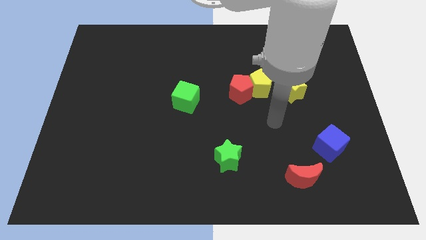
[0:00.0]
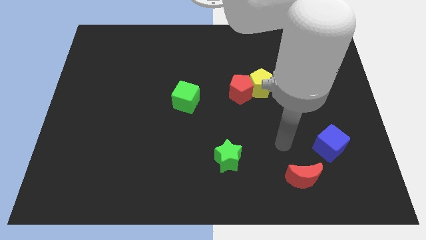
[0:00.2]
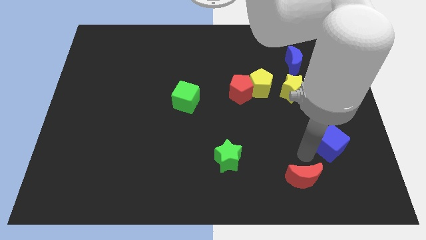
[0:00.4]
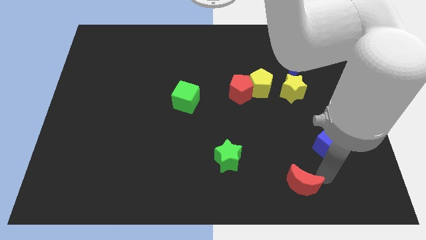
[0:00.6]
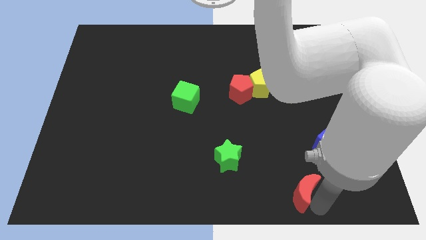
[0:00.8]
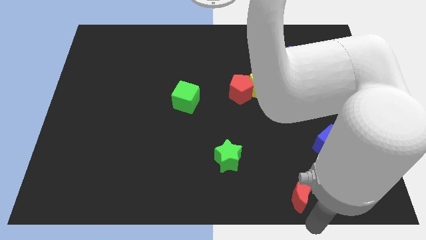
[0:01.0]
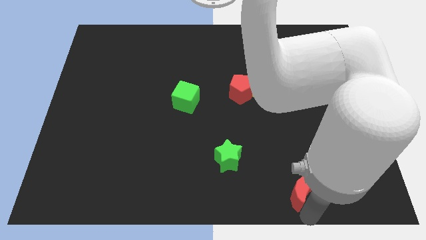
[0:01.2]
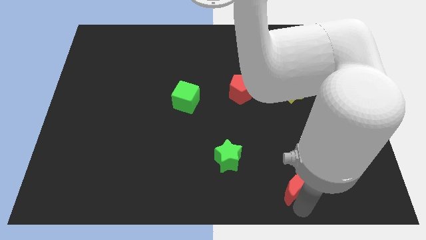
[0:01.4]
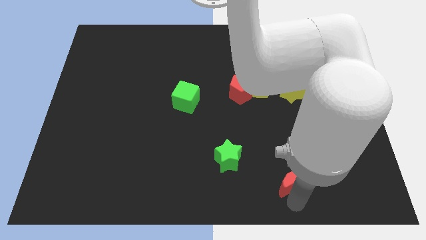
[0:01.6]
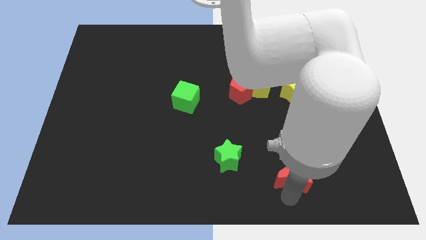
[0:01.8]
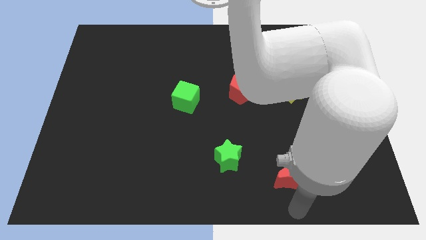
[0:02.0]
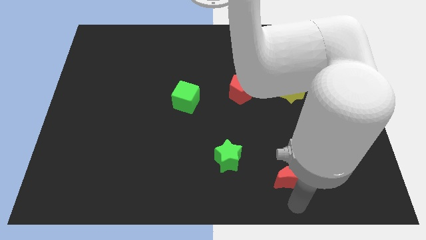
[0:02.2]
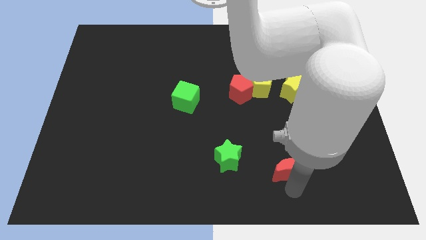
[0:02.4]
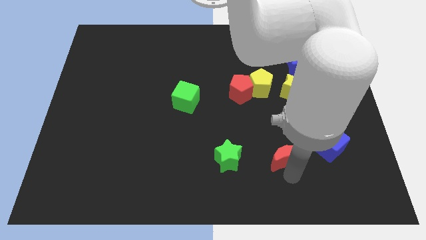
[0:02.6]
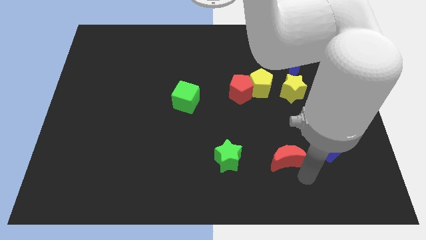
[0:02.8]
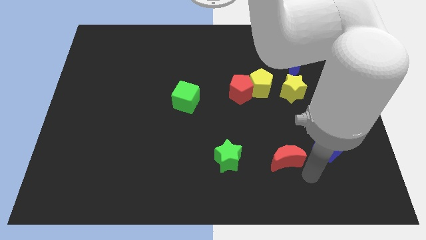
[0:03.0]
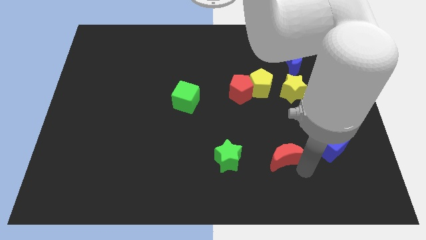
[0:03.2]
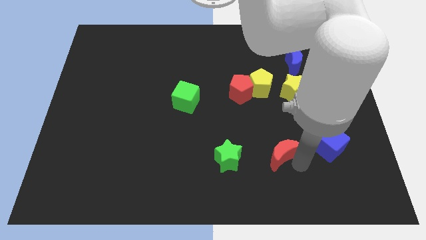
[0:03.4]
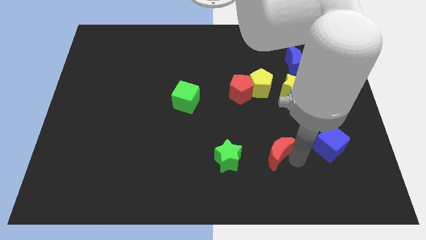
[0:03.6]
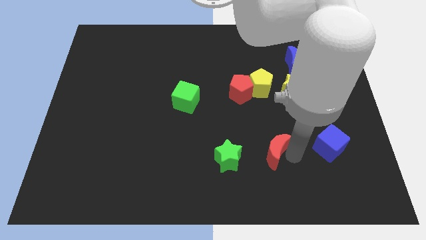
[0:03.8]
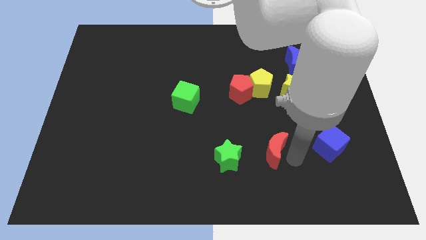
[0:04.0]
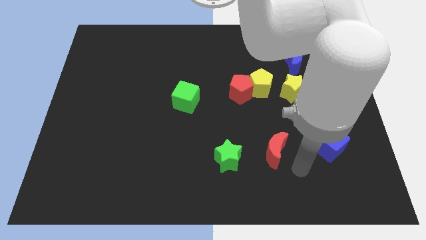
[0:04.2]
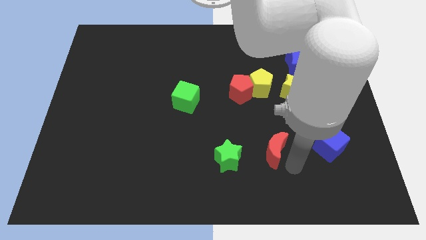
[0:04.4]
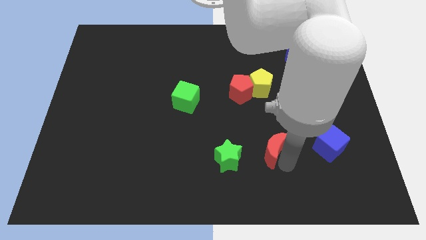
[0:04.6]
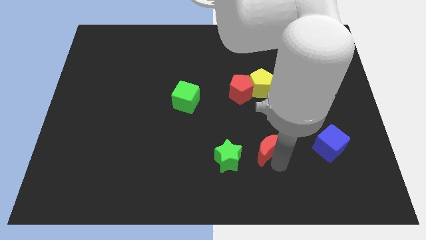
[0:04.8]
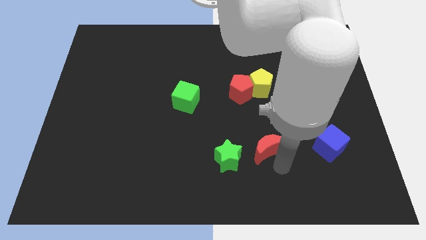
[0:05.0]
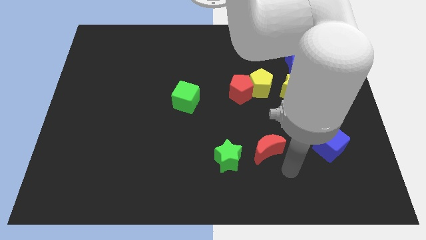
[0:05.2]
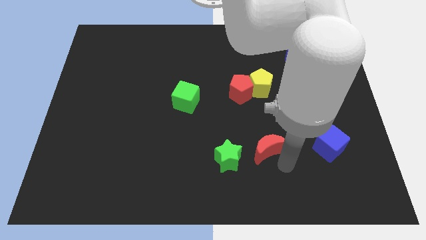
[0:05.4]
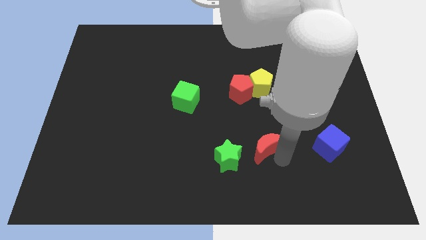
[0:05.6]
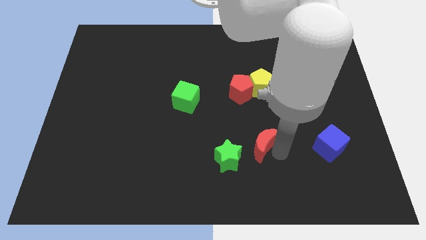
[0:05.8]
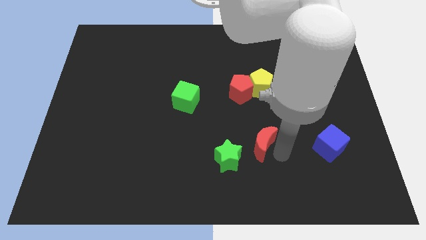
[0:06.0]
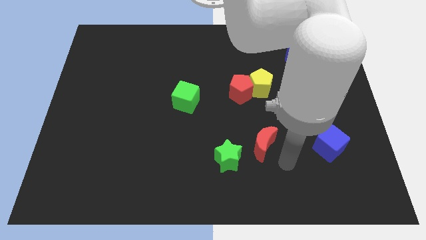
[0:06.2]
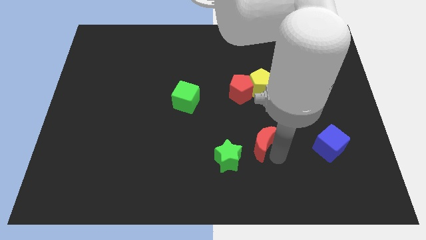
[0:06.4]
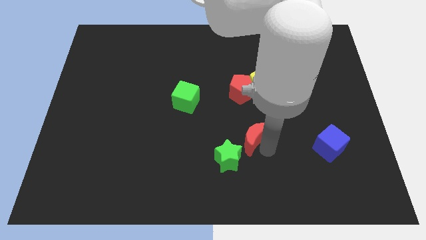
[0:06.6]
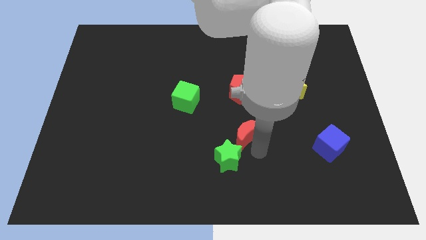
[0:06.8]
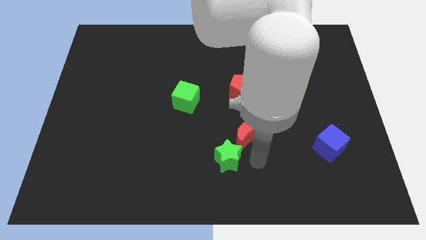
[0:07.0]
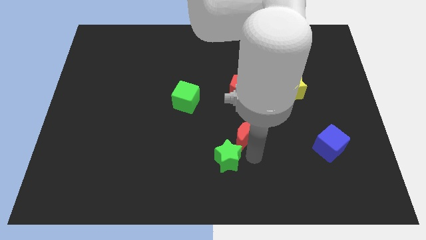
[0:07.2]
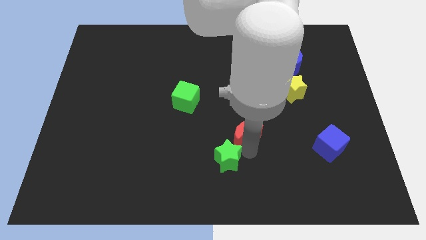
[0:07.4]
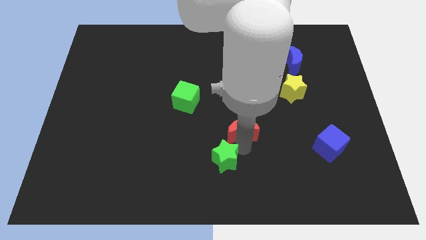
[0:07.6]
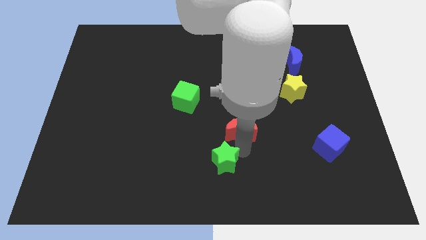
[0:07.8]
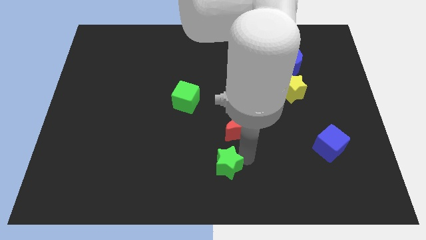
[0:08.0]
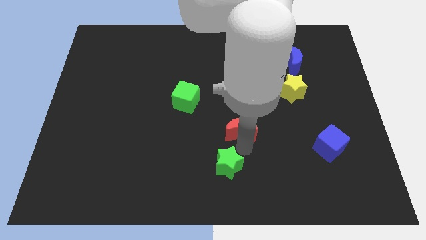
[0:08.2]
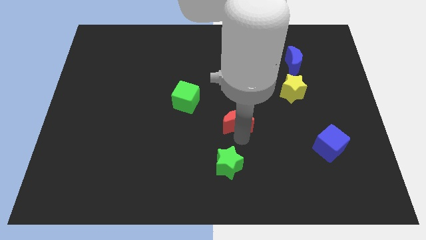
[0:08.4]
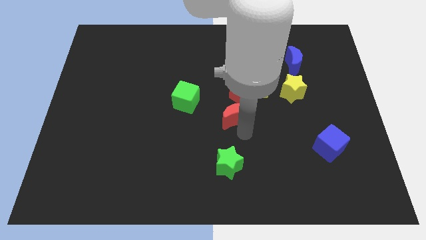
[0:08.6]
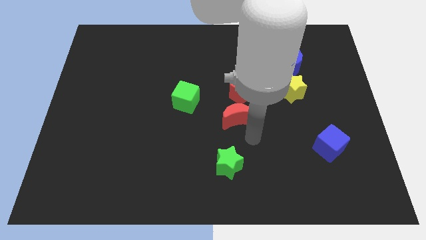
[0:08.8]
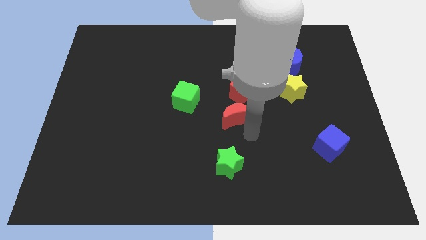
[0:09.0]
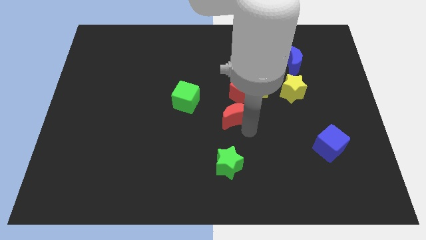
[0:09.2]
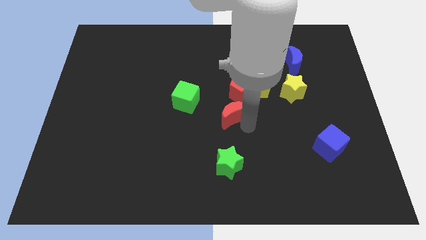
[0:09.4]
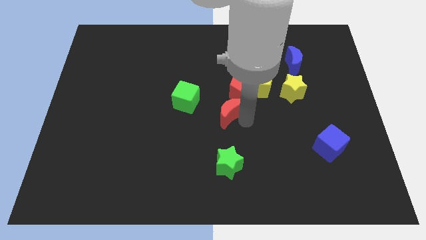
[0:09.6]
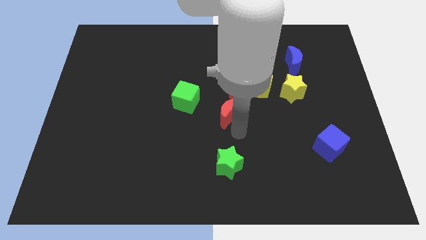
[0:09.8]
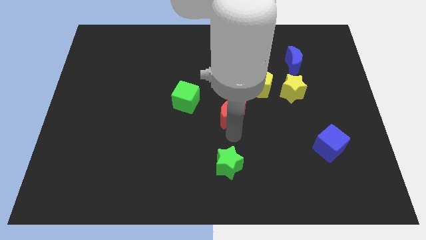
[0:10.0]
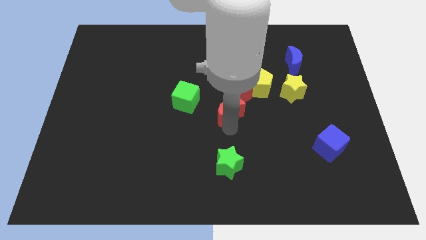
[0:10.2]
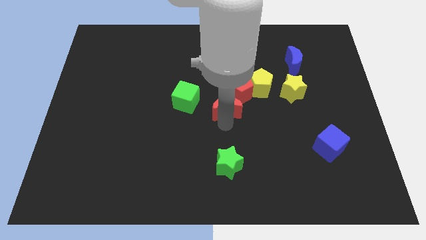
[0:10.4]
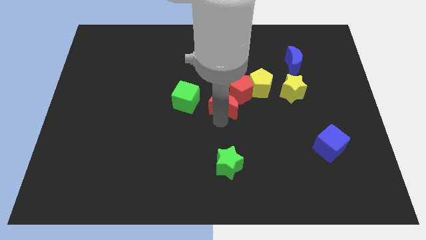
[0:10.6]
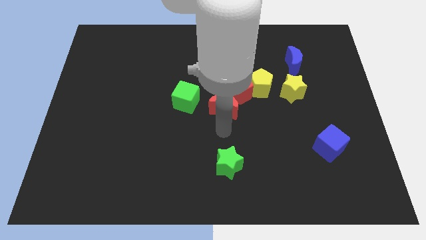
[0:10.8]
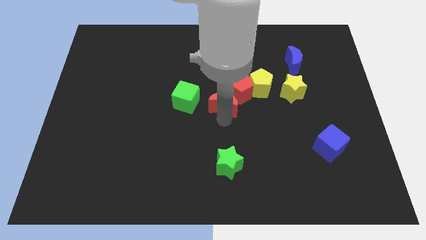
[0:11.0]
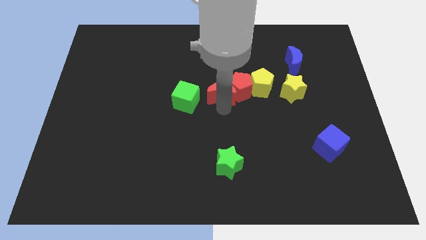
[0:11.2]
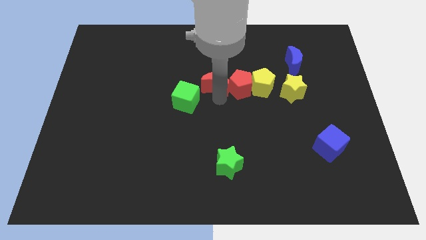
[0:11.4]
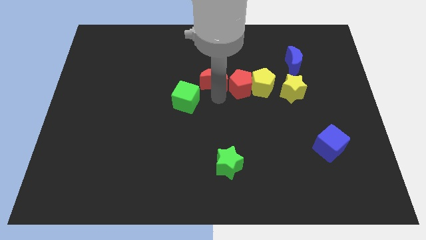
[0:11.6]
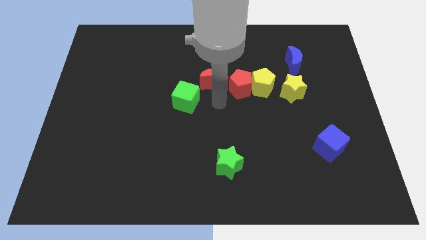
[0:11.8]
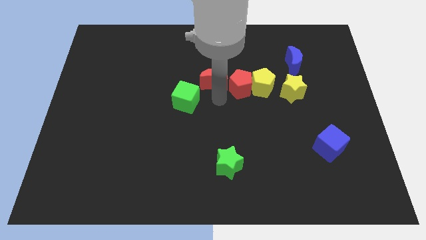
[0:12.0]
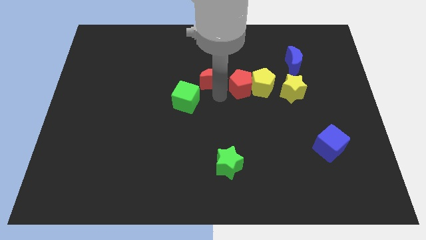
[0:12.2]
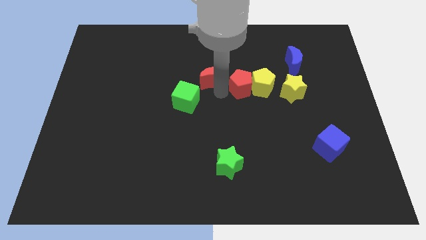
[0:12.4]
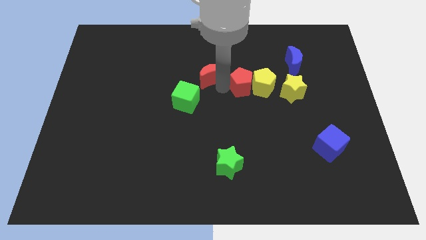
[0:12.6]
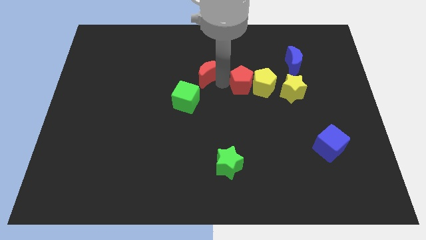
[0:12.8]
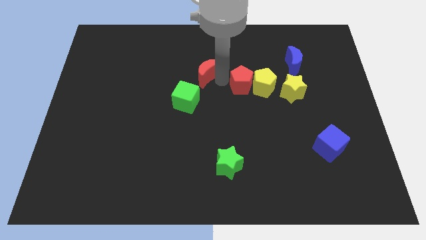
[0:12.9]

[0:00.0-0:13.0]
put the red moon to the top side of the green cube
